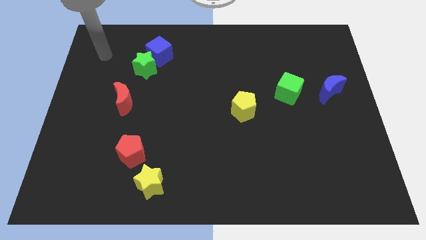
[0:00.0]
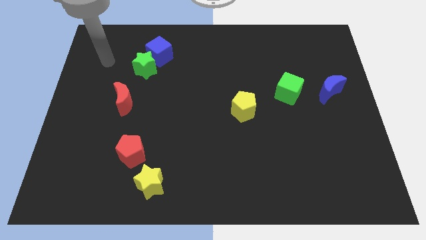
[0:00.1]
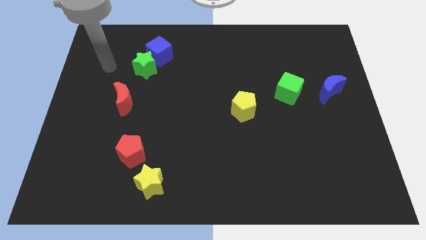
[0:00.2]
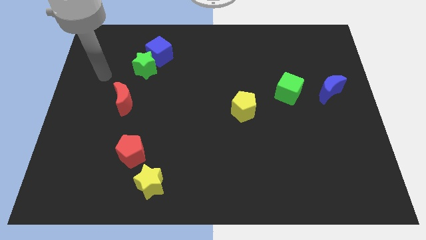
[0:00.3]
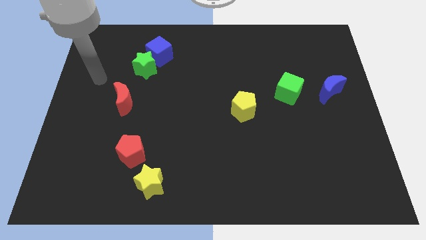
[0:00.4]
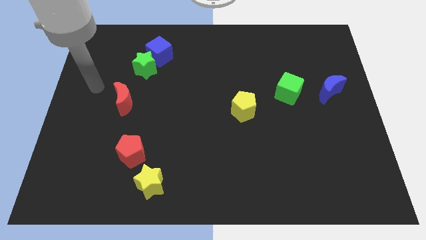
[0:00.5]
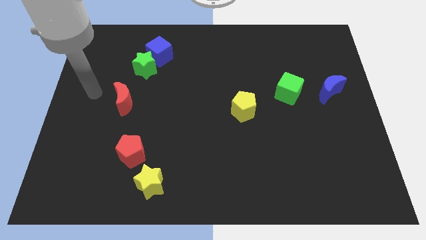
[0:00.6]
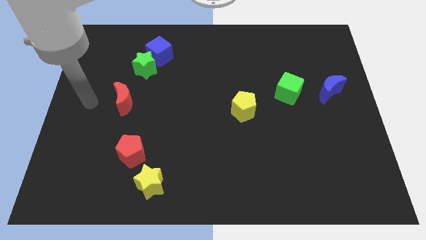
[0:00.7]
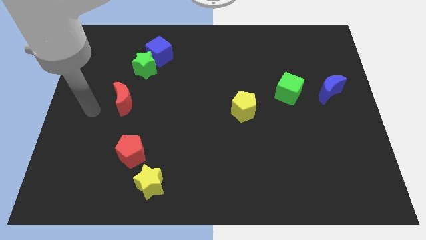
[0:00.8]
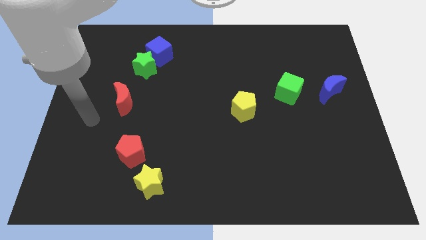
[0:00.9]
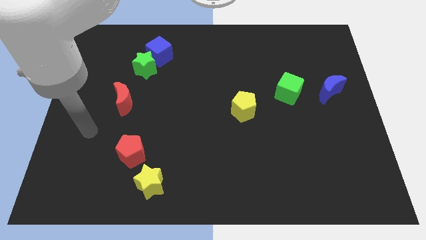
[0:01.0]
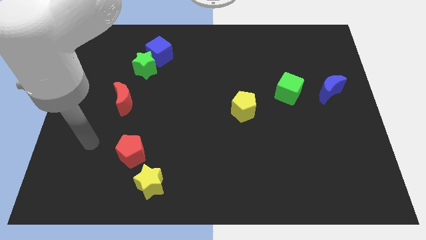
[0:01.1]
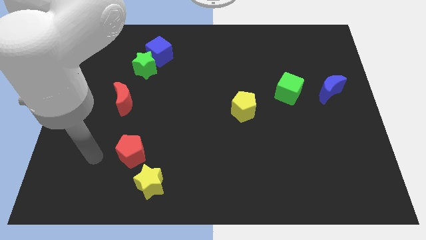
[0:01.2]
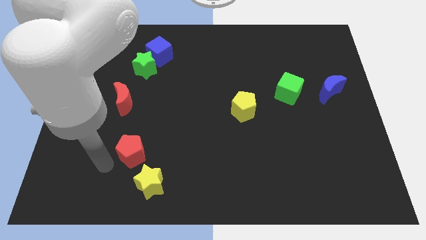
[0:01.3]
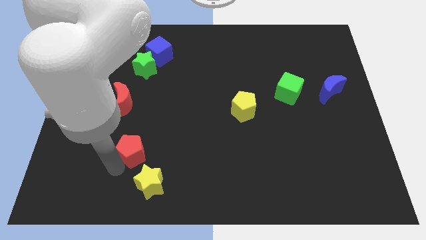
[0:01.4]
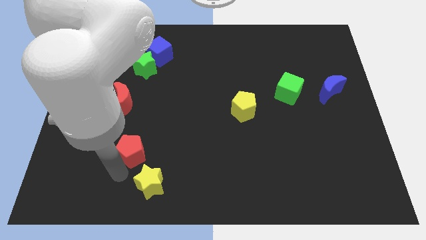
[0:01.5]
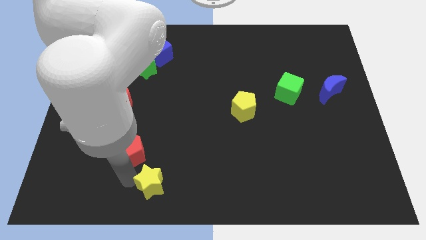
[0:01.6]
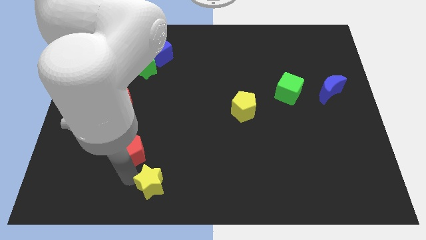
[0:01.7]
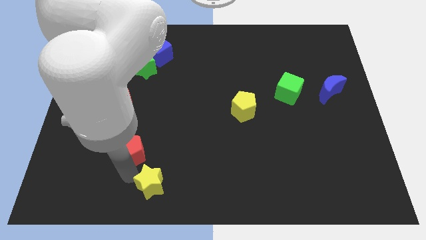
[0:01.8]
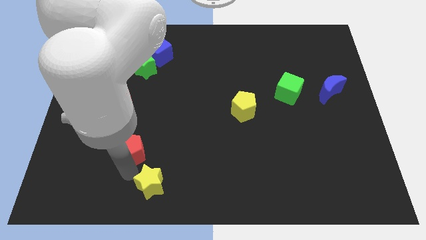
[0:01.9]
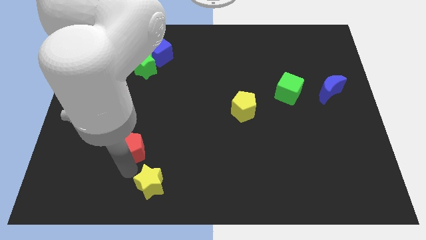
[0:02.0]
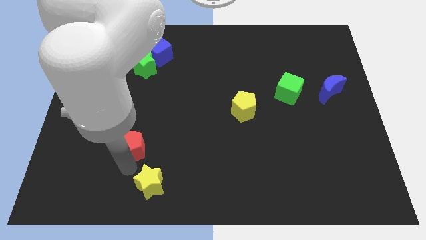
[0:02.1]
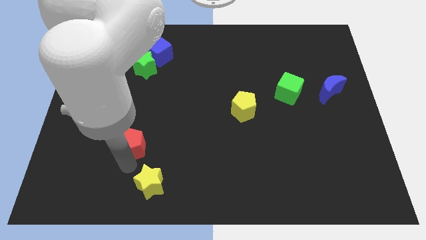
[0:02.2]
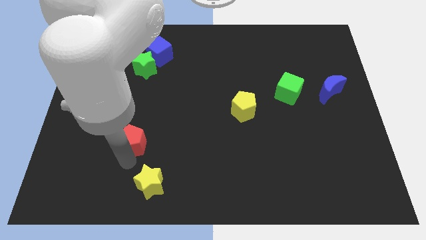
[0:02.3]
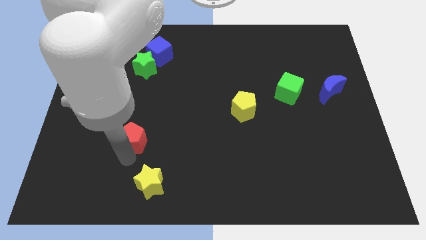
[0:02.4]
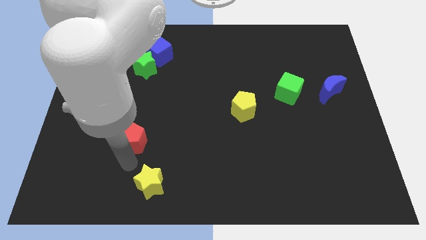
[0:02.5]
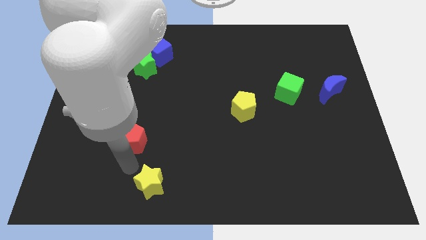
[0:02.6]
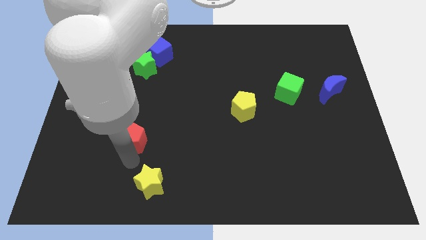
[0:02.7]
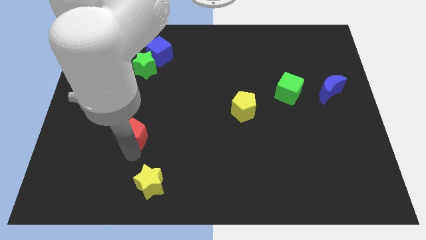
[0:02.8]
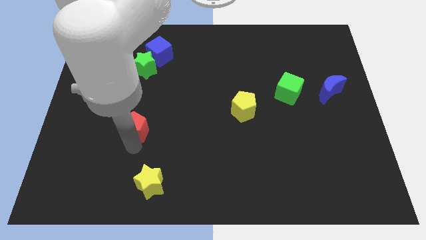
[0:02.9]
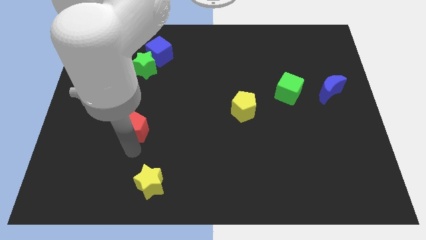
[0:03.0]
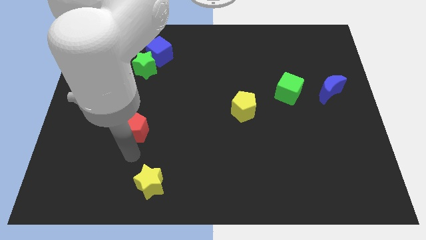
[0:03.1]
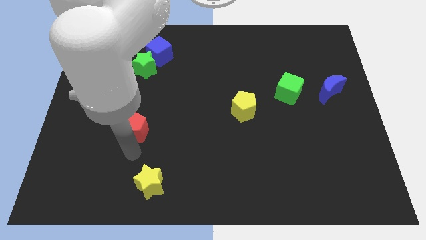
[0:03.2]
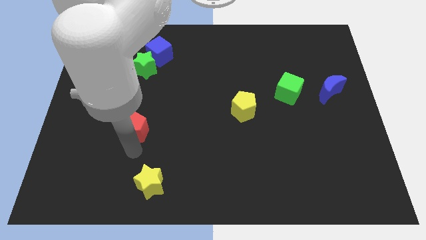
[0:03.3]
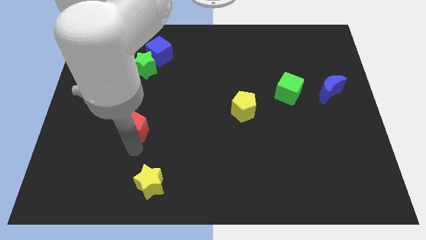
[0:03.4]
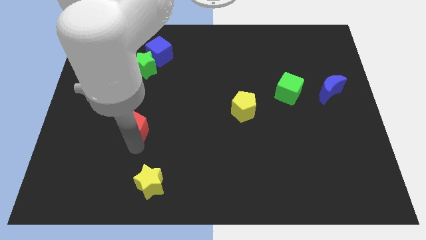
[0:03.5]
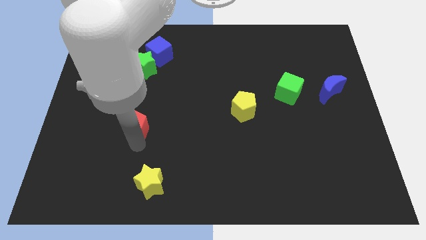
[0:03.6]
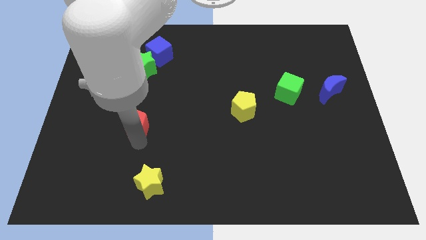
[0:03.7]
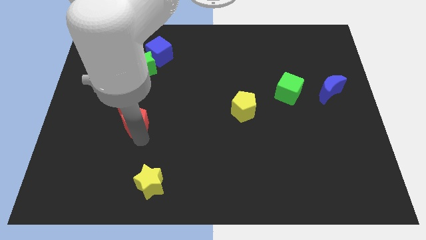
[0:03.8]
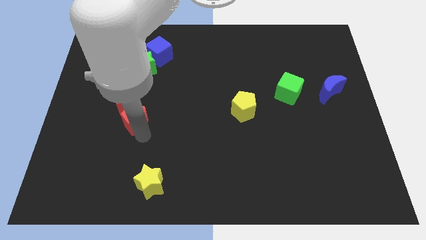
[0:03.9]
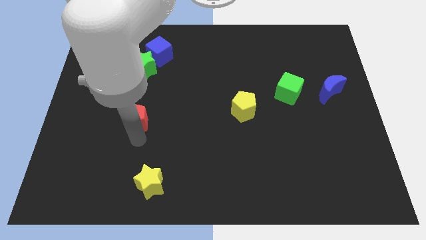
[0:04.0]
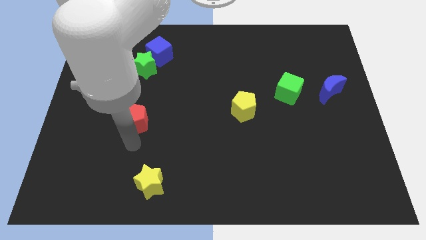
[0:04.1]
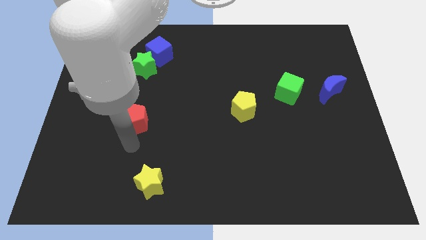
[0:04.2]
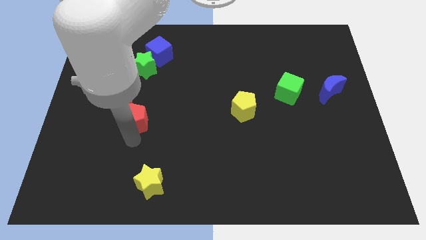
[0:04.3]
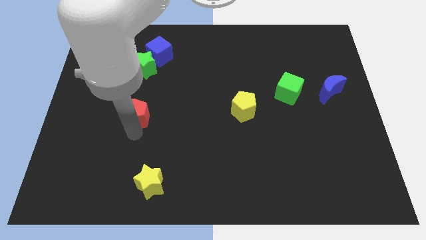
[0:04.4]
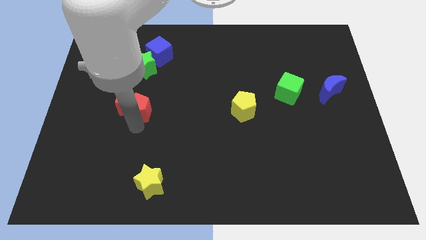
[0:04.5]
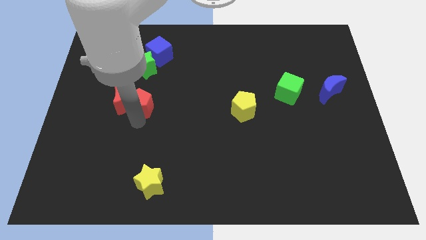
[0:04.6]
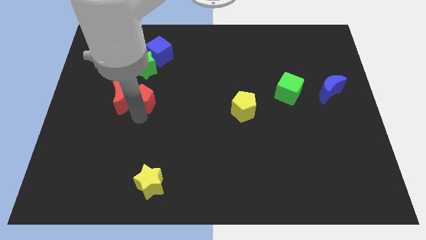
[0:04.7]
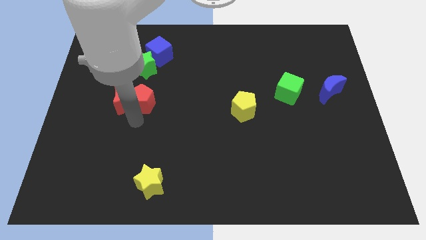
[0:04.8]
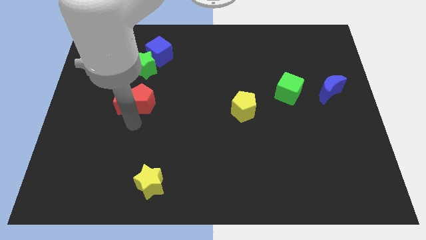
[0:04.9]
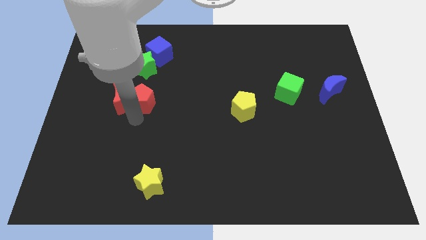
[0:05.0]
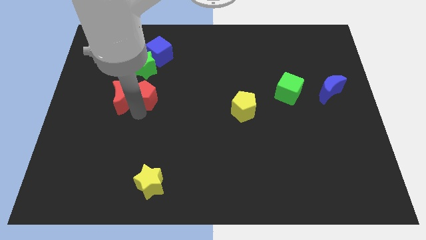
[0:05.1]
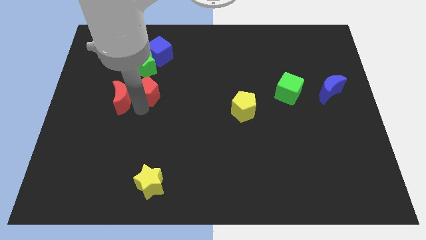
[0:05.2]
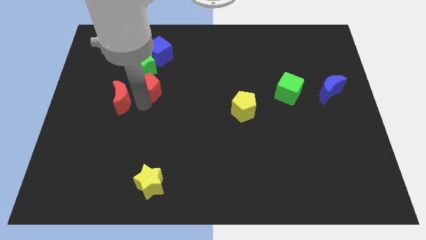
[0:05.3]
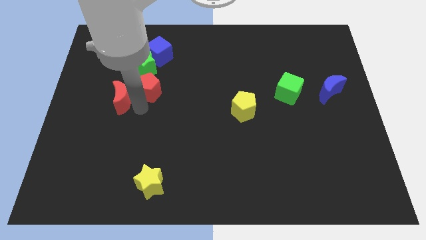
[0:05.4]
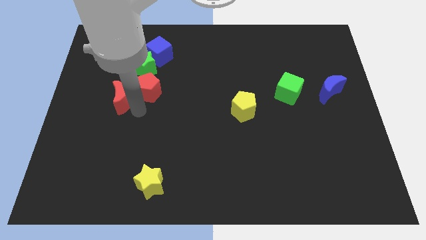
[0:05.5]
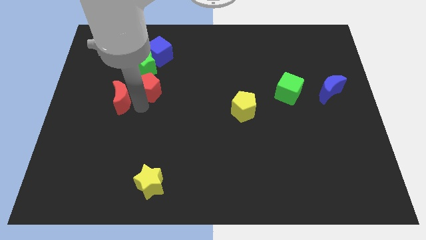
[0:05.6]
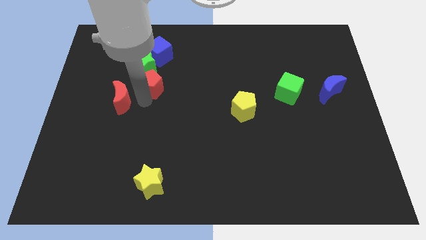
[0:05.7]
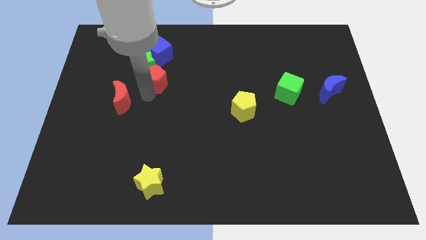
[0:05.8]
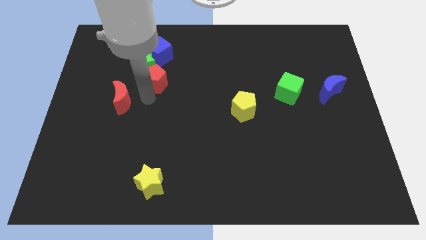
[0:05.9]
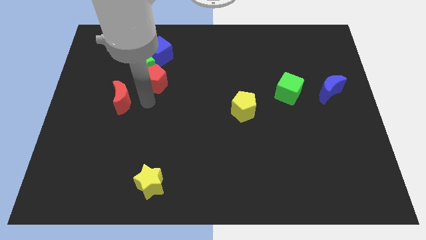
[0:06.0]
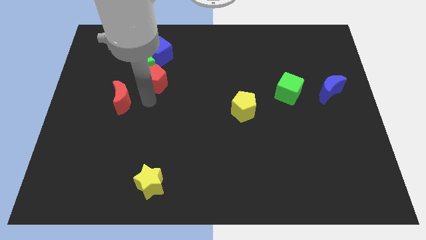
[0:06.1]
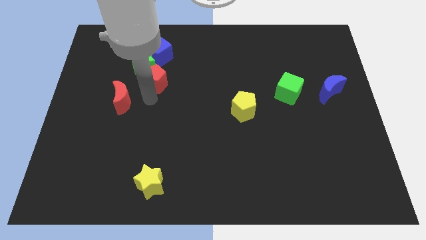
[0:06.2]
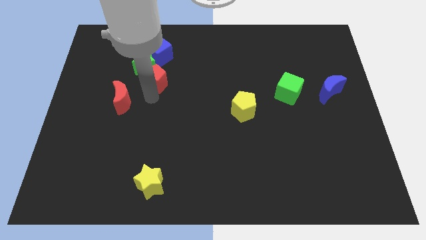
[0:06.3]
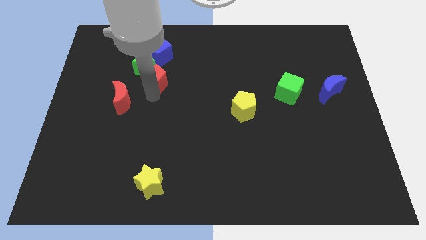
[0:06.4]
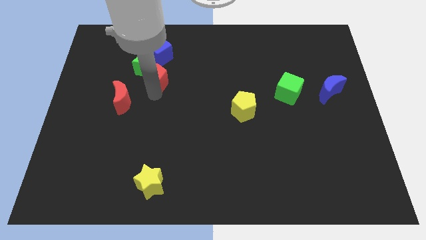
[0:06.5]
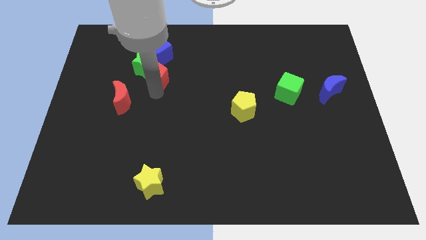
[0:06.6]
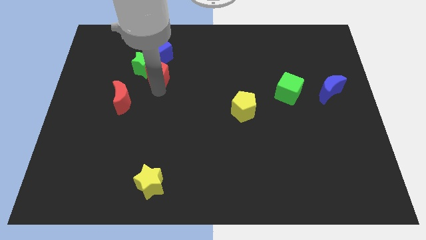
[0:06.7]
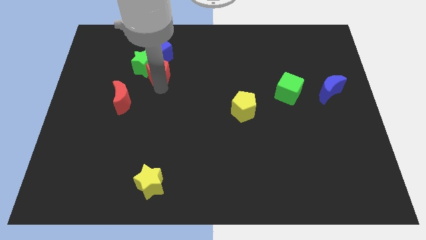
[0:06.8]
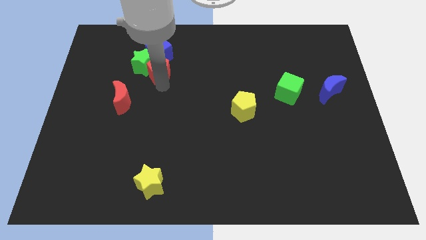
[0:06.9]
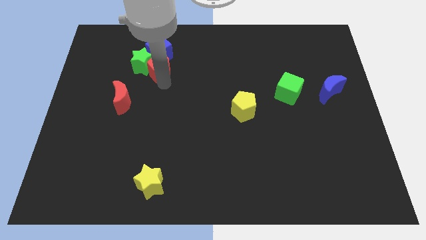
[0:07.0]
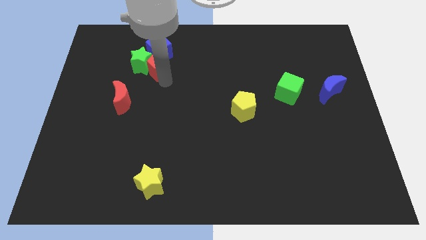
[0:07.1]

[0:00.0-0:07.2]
push the red pentagon close to the blue cube
